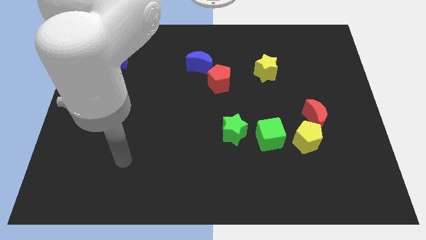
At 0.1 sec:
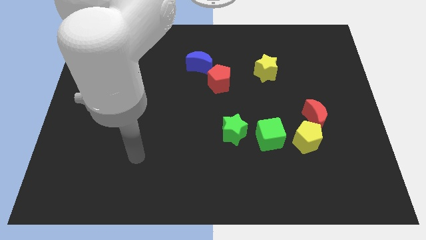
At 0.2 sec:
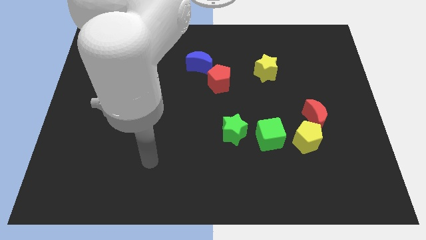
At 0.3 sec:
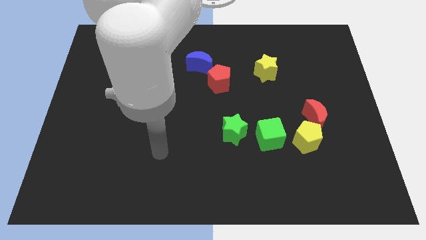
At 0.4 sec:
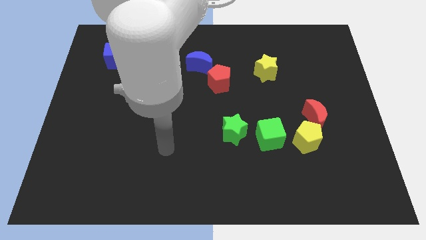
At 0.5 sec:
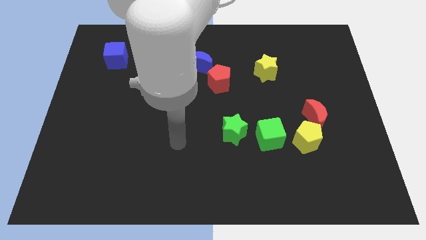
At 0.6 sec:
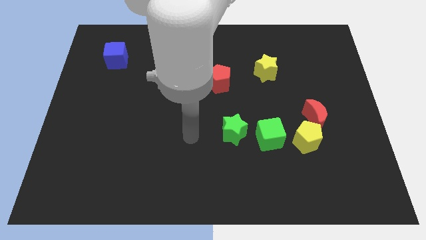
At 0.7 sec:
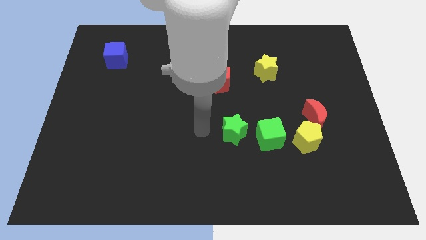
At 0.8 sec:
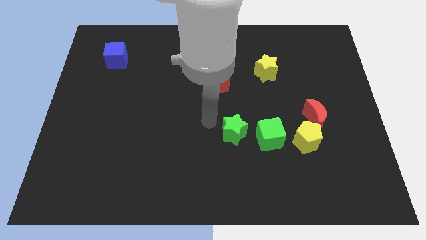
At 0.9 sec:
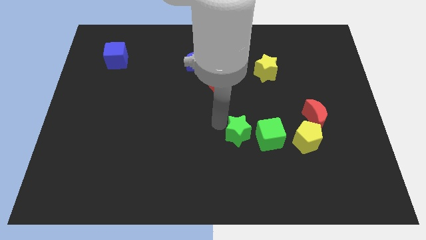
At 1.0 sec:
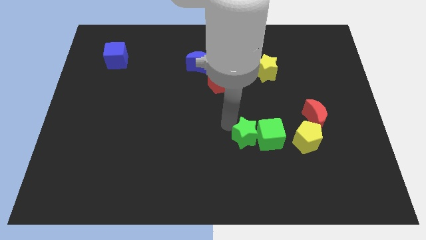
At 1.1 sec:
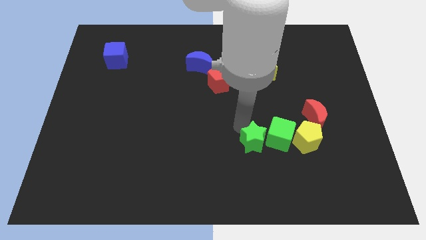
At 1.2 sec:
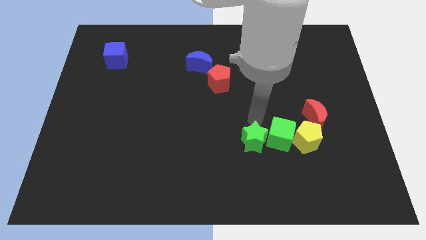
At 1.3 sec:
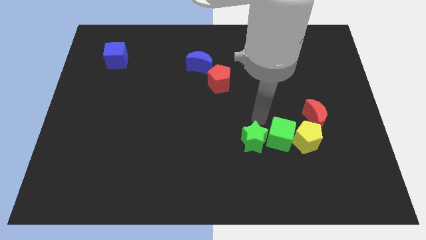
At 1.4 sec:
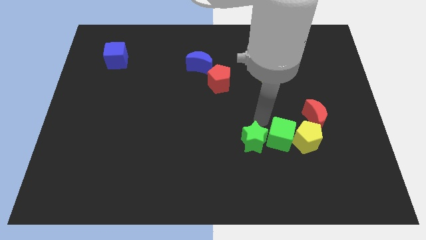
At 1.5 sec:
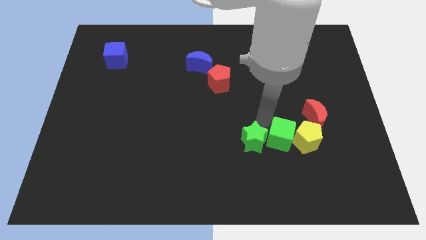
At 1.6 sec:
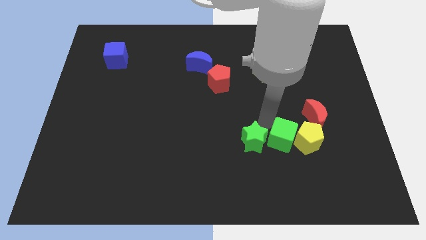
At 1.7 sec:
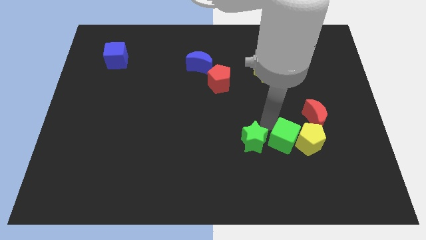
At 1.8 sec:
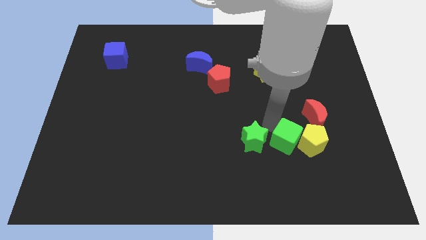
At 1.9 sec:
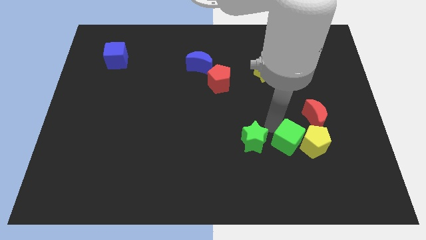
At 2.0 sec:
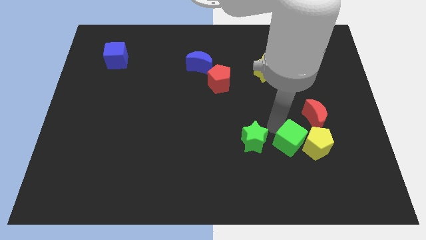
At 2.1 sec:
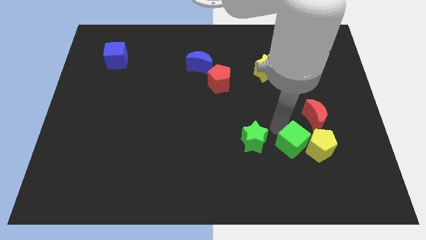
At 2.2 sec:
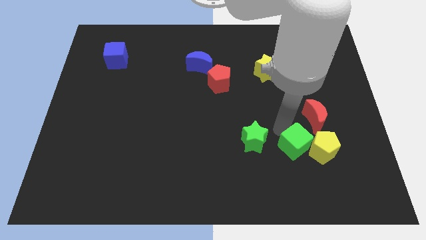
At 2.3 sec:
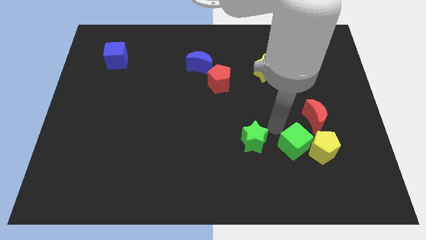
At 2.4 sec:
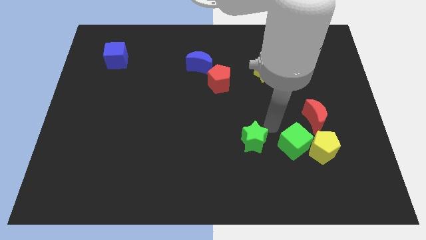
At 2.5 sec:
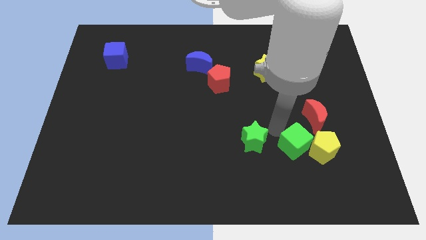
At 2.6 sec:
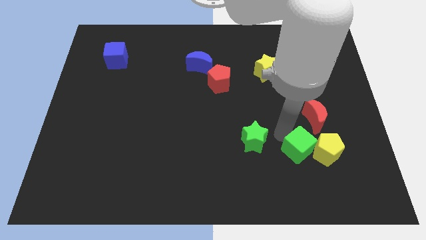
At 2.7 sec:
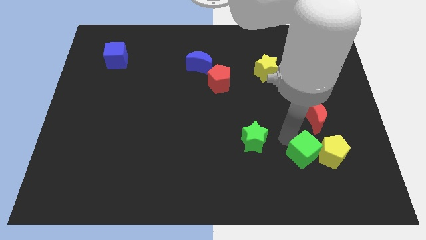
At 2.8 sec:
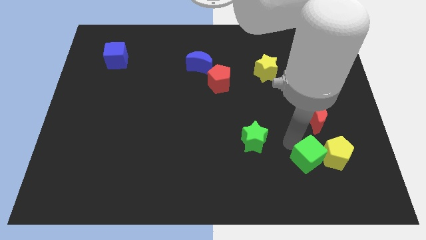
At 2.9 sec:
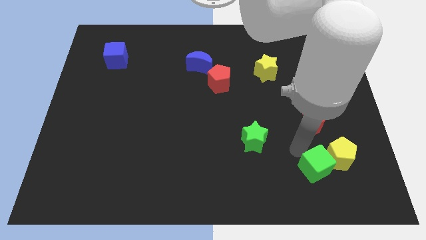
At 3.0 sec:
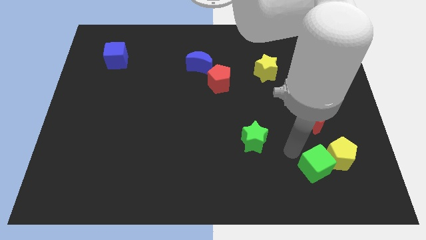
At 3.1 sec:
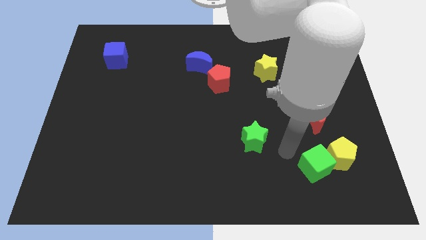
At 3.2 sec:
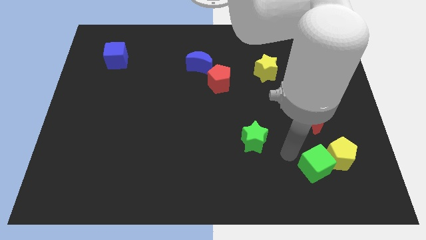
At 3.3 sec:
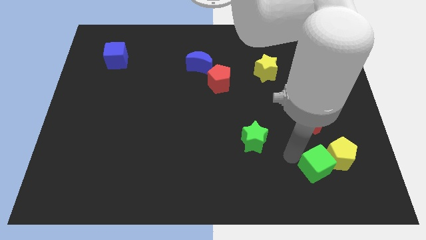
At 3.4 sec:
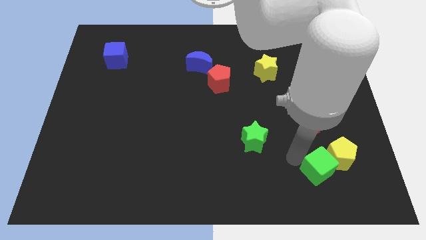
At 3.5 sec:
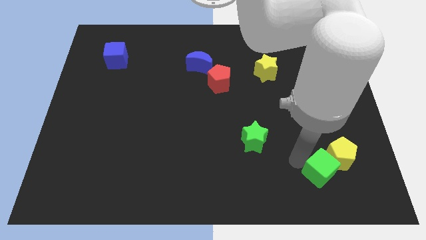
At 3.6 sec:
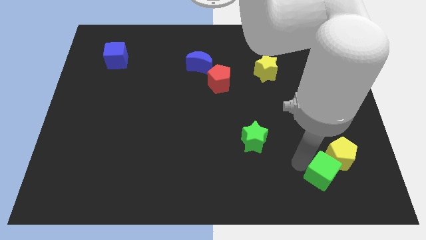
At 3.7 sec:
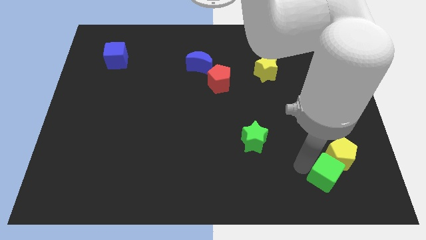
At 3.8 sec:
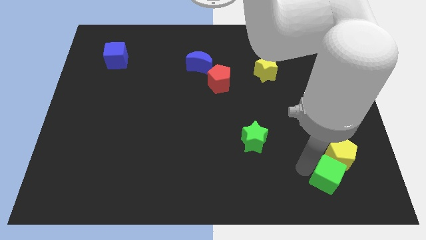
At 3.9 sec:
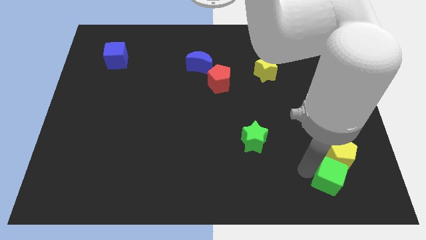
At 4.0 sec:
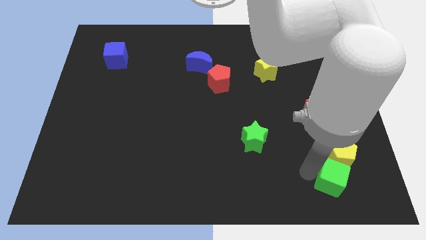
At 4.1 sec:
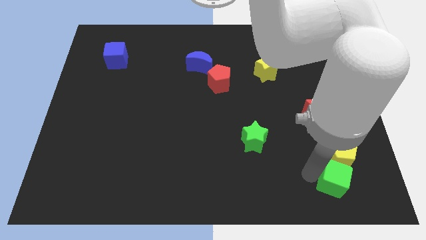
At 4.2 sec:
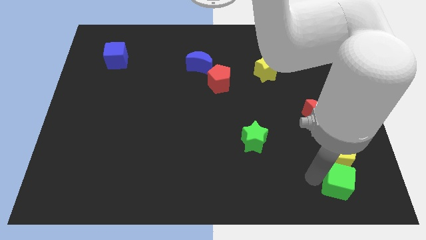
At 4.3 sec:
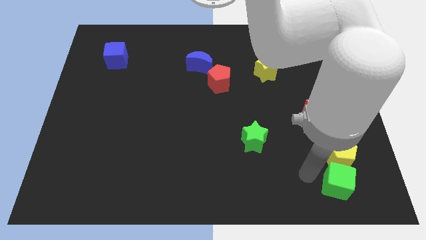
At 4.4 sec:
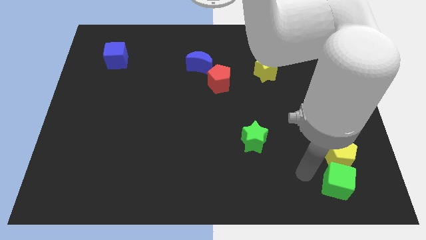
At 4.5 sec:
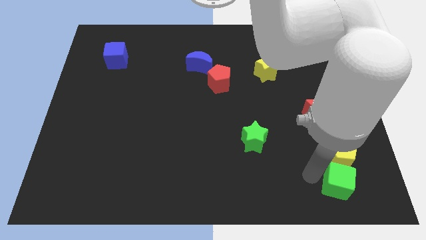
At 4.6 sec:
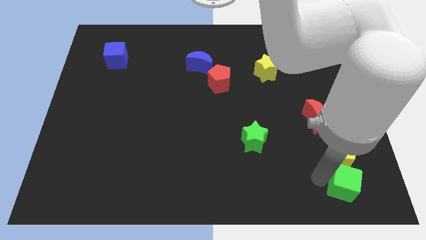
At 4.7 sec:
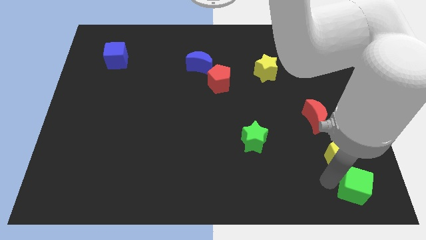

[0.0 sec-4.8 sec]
push the green cube to the bottom right

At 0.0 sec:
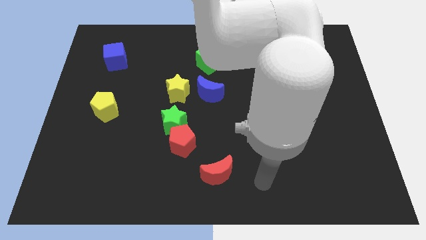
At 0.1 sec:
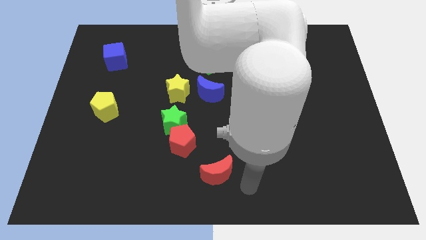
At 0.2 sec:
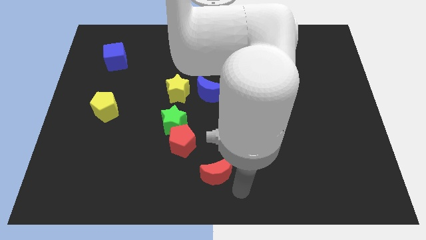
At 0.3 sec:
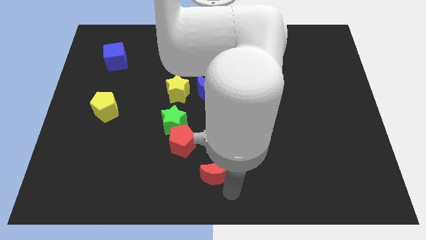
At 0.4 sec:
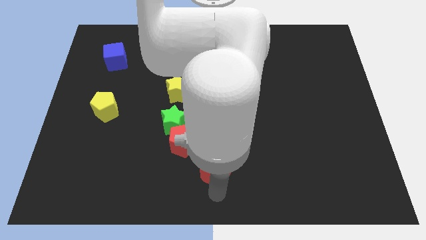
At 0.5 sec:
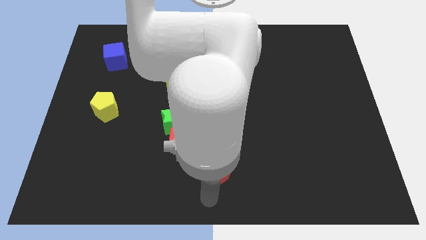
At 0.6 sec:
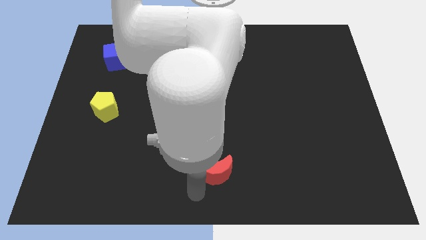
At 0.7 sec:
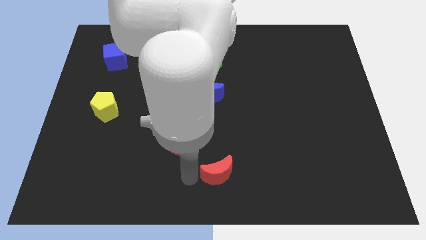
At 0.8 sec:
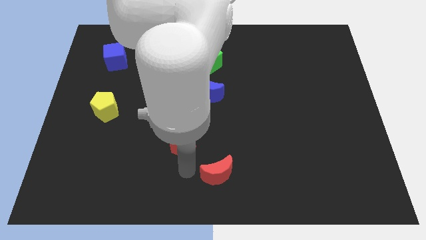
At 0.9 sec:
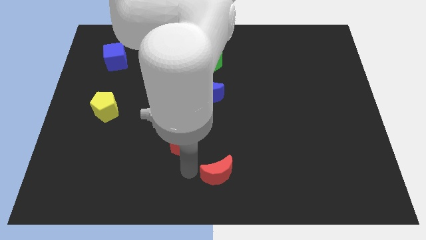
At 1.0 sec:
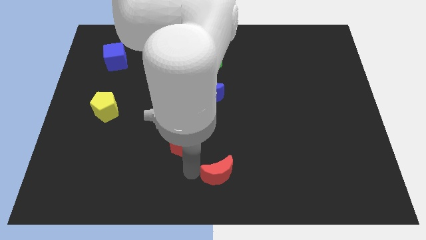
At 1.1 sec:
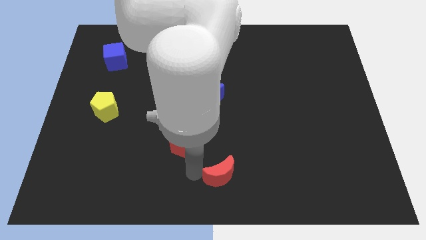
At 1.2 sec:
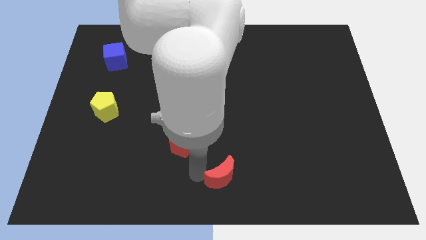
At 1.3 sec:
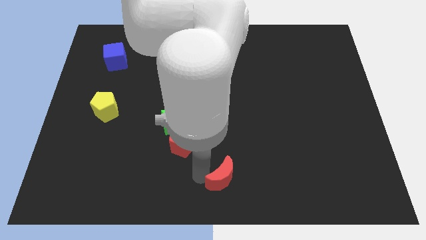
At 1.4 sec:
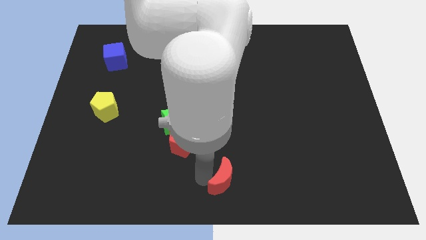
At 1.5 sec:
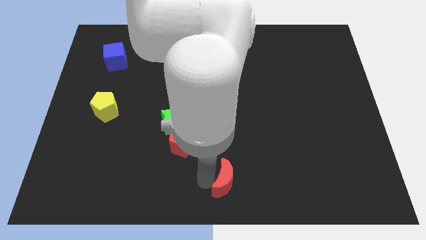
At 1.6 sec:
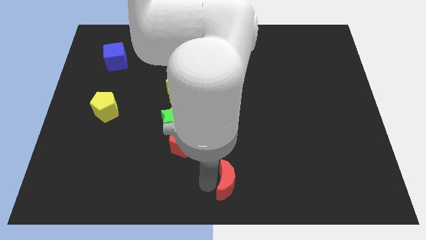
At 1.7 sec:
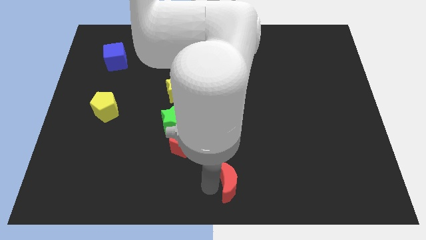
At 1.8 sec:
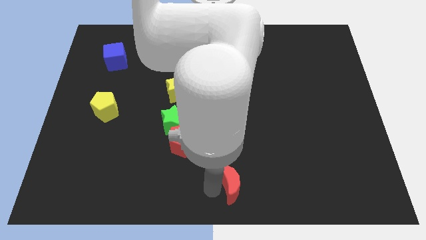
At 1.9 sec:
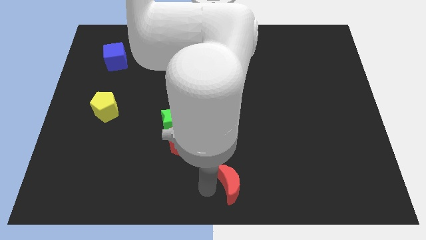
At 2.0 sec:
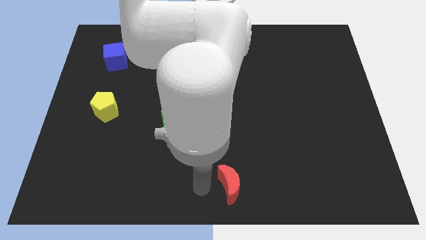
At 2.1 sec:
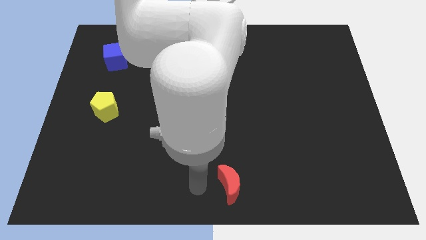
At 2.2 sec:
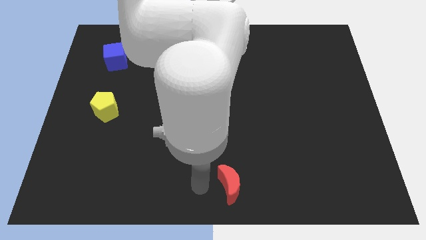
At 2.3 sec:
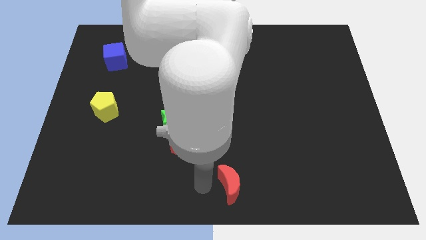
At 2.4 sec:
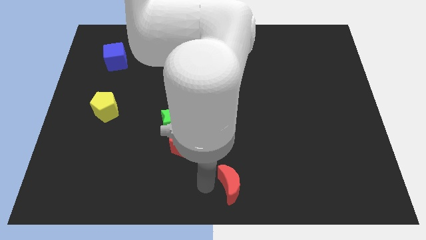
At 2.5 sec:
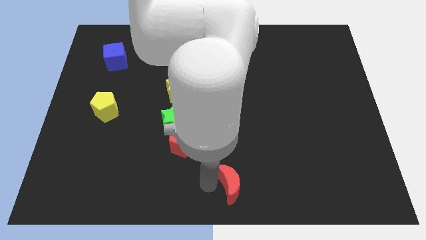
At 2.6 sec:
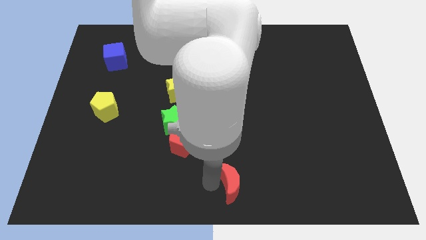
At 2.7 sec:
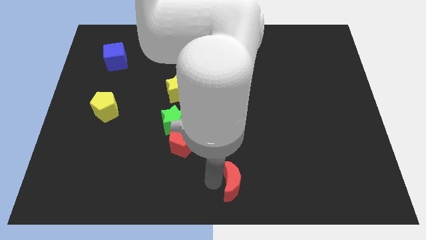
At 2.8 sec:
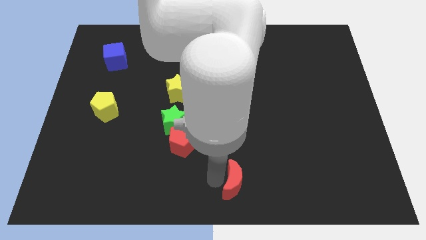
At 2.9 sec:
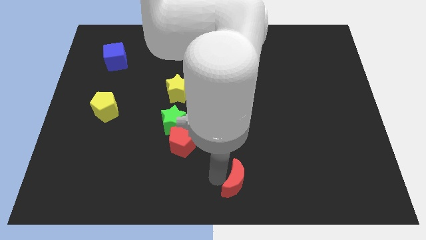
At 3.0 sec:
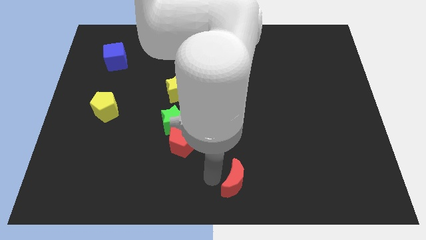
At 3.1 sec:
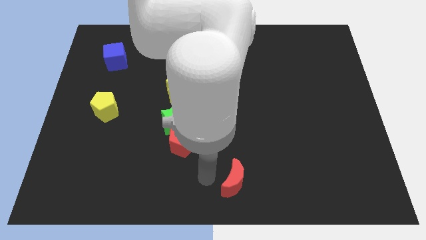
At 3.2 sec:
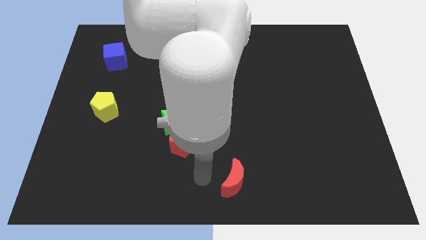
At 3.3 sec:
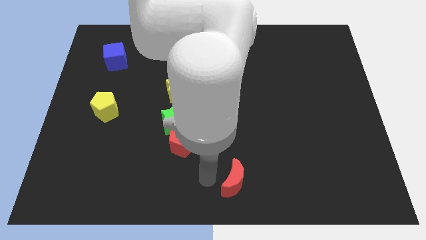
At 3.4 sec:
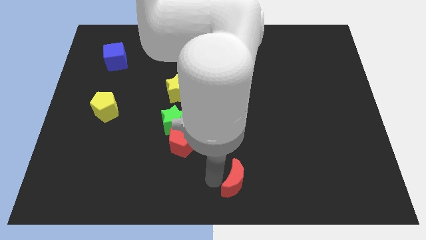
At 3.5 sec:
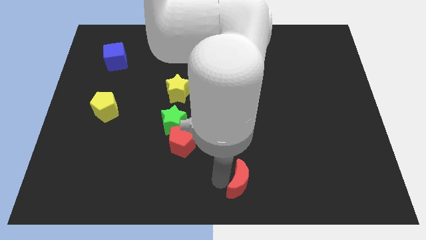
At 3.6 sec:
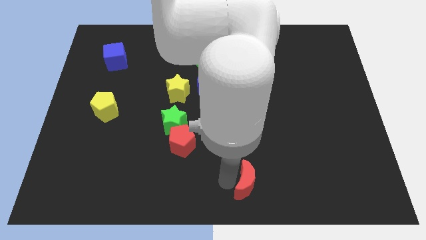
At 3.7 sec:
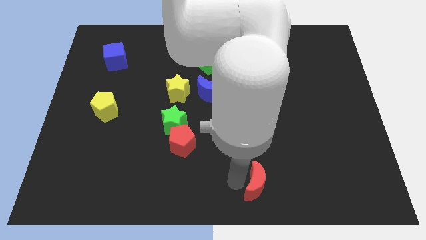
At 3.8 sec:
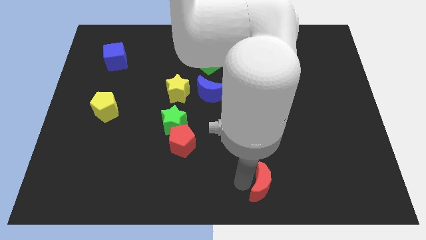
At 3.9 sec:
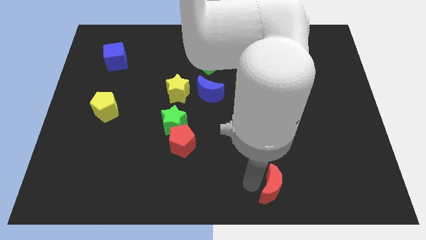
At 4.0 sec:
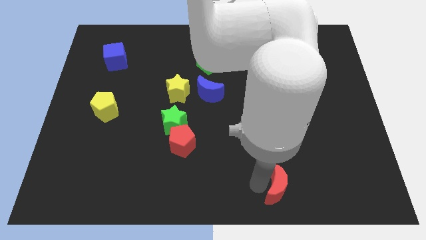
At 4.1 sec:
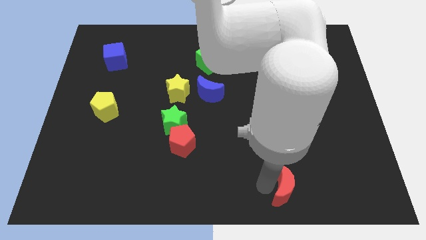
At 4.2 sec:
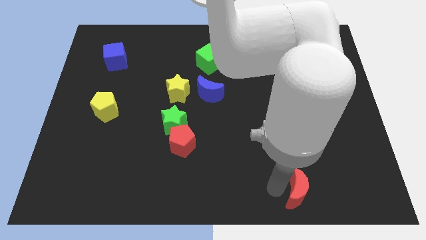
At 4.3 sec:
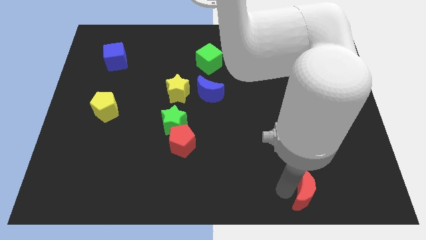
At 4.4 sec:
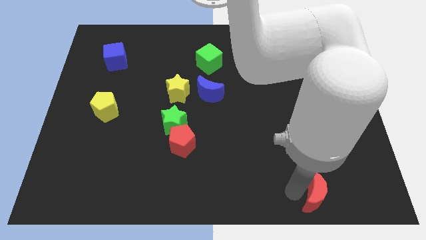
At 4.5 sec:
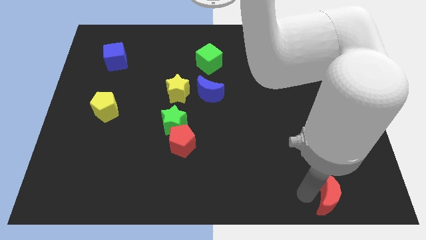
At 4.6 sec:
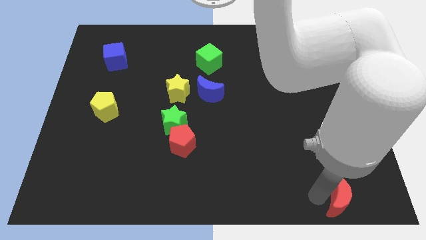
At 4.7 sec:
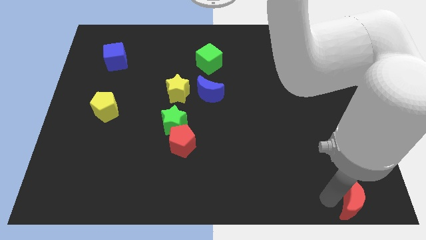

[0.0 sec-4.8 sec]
put the red moon to the lower right corner
